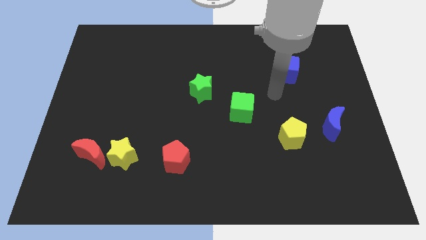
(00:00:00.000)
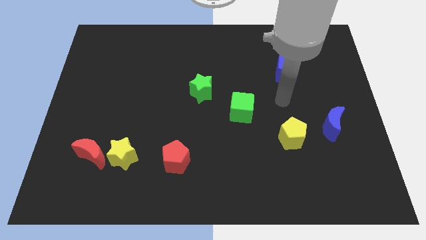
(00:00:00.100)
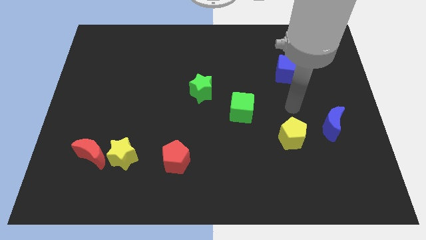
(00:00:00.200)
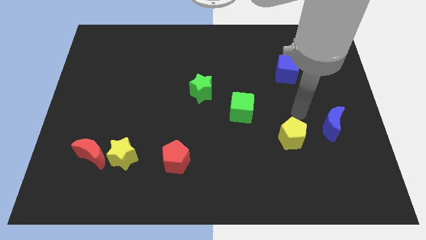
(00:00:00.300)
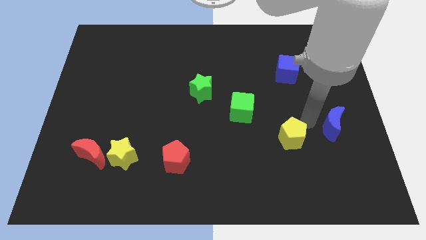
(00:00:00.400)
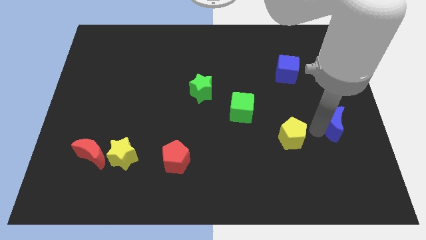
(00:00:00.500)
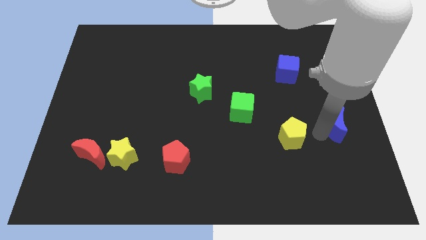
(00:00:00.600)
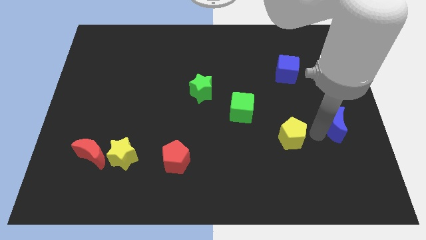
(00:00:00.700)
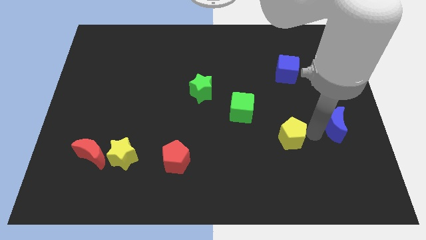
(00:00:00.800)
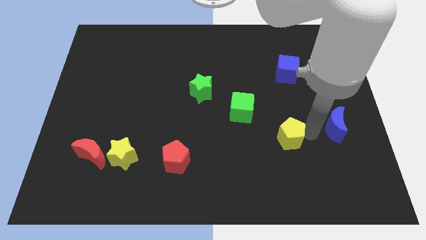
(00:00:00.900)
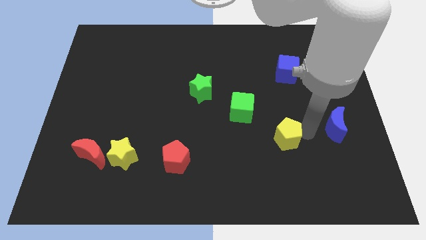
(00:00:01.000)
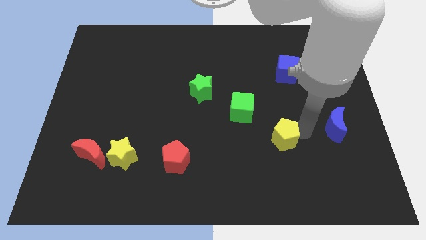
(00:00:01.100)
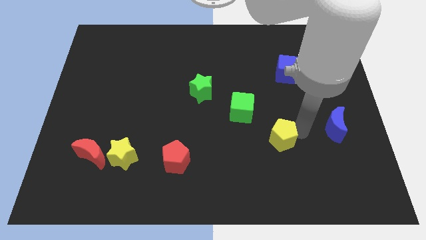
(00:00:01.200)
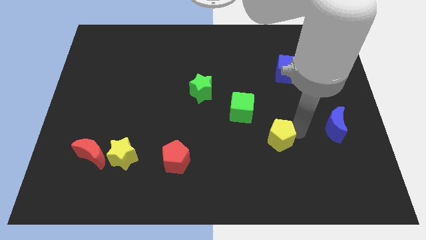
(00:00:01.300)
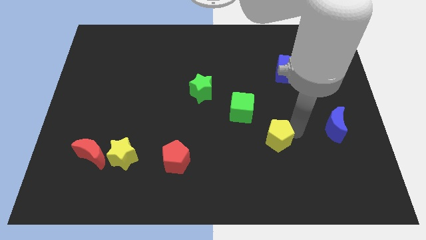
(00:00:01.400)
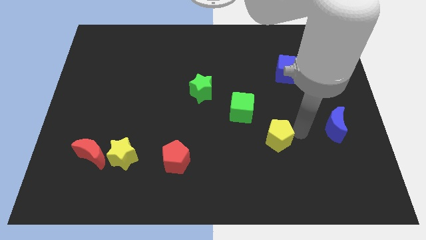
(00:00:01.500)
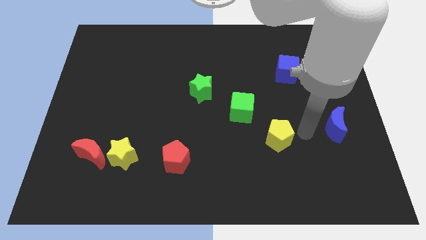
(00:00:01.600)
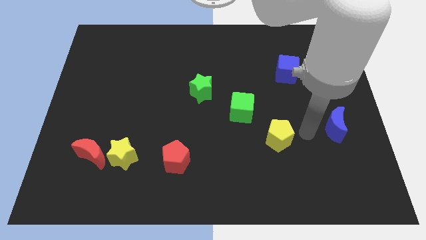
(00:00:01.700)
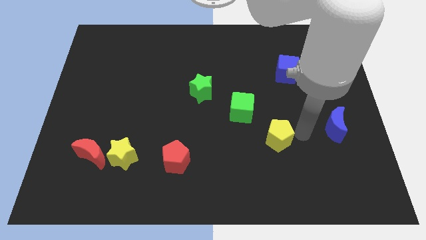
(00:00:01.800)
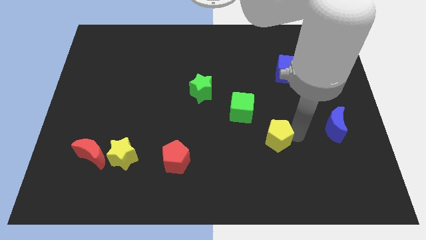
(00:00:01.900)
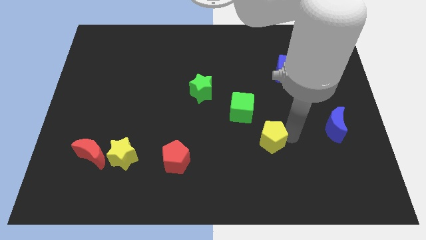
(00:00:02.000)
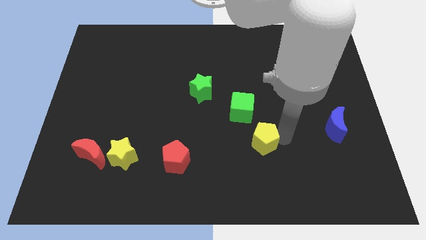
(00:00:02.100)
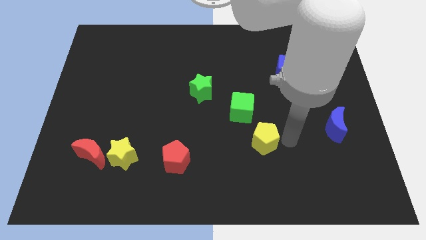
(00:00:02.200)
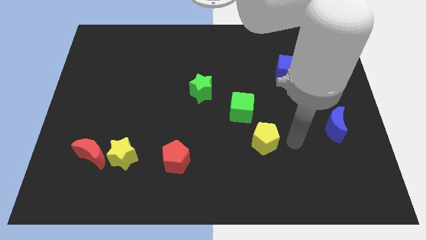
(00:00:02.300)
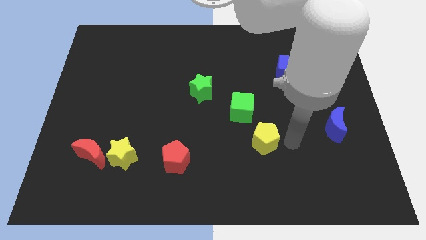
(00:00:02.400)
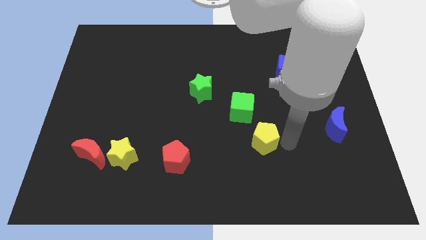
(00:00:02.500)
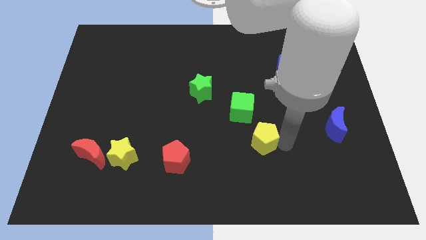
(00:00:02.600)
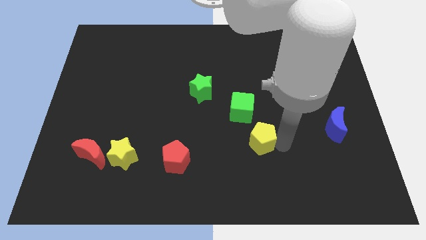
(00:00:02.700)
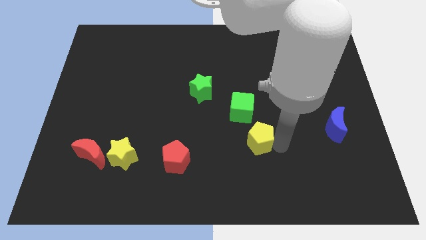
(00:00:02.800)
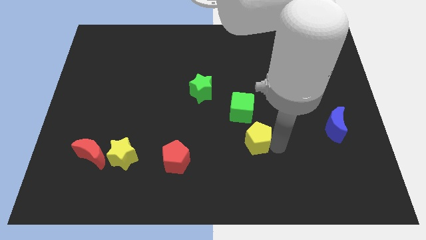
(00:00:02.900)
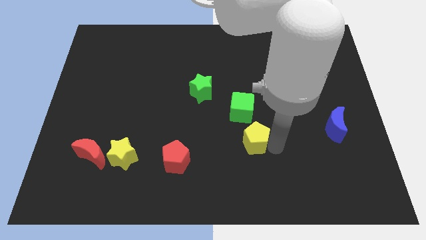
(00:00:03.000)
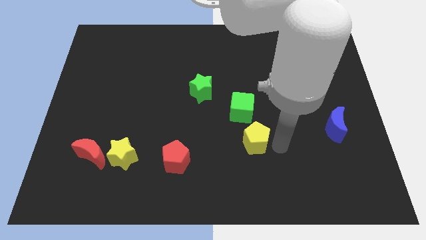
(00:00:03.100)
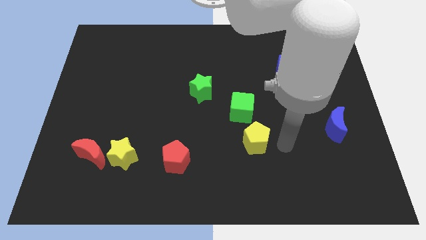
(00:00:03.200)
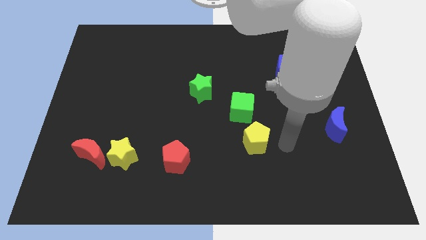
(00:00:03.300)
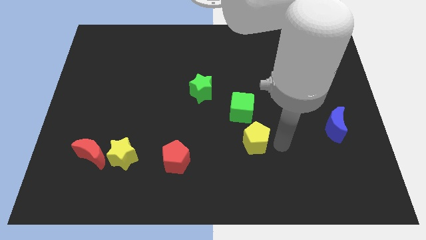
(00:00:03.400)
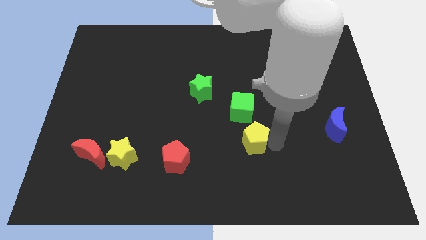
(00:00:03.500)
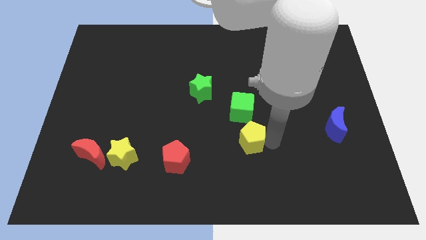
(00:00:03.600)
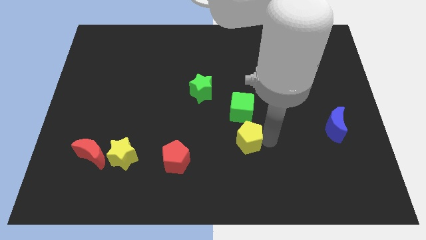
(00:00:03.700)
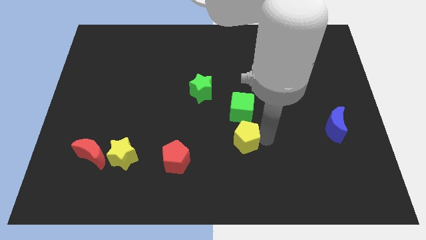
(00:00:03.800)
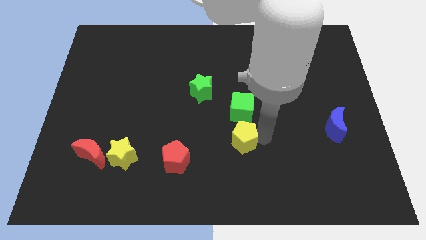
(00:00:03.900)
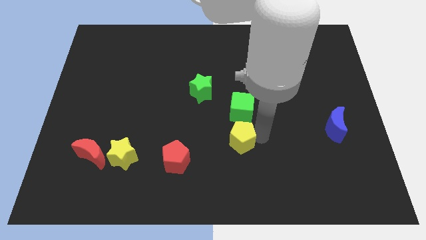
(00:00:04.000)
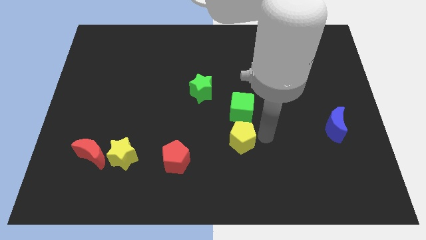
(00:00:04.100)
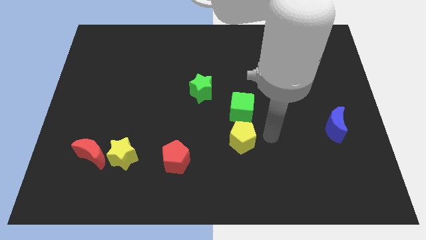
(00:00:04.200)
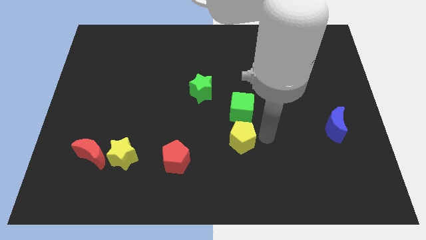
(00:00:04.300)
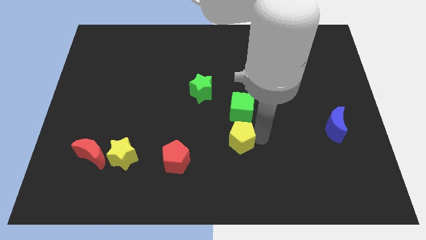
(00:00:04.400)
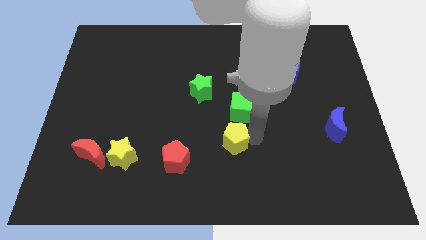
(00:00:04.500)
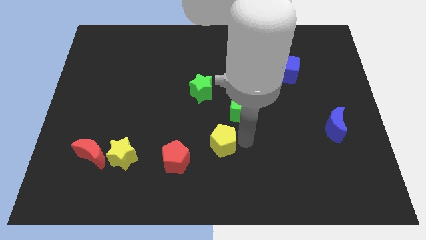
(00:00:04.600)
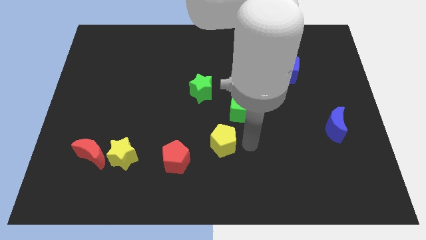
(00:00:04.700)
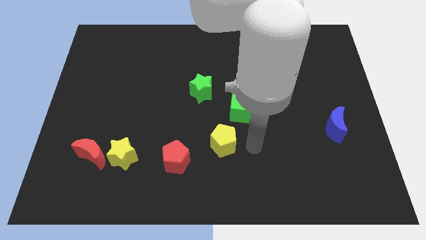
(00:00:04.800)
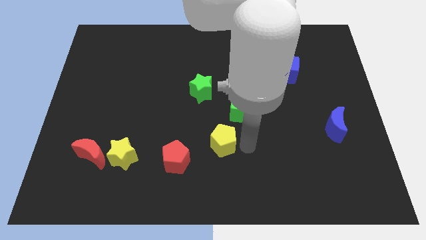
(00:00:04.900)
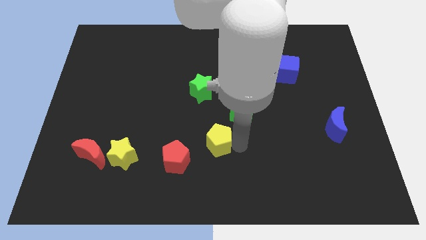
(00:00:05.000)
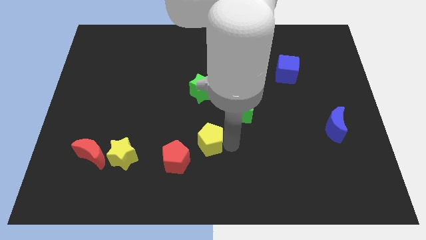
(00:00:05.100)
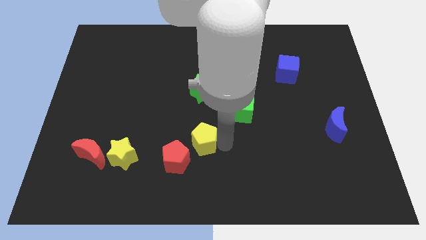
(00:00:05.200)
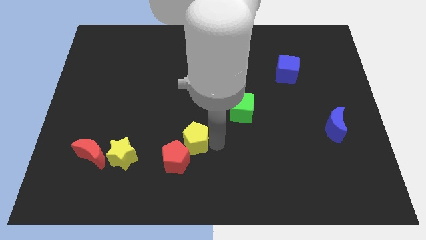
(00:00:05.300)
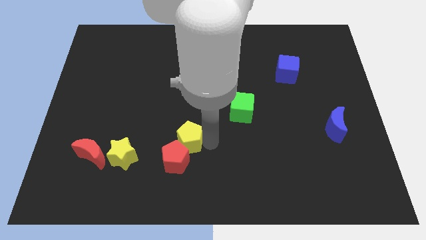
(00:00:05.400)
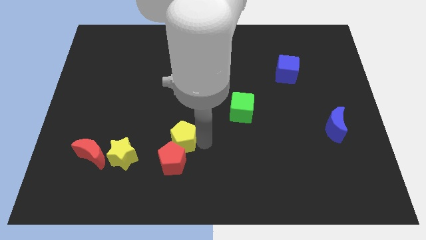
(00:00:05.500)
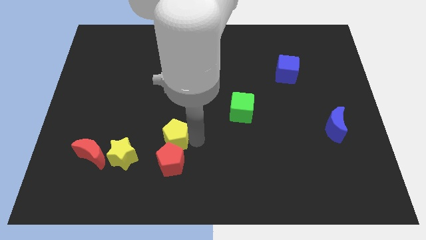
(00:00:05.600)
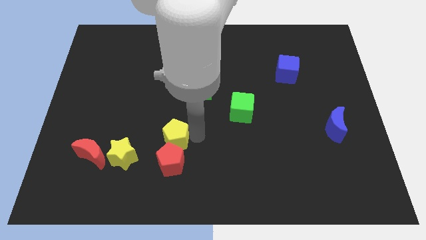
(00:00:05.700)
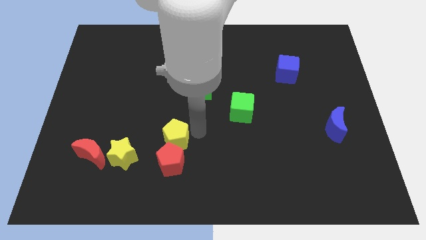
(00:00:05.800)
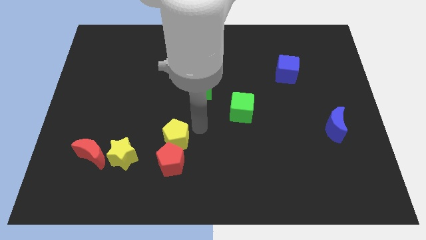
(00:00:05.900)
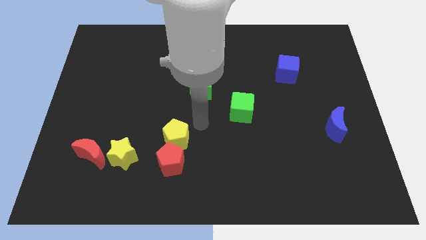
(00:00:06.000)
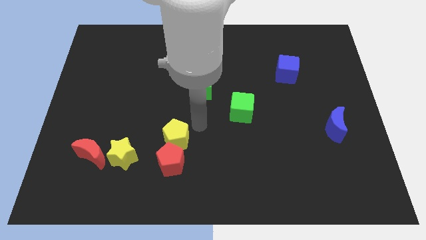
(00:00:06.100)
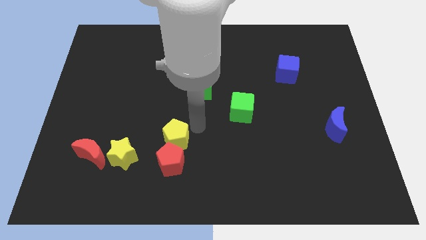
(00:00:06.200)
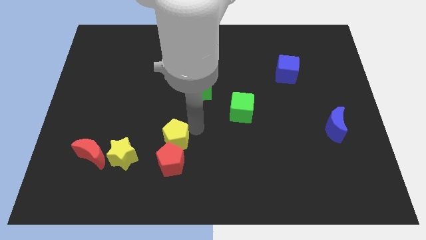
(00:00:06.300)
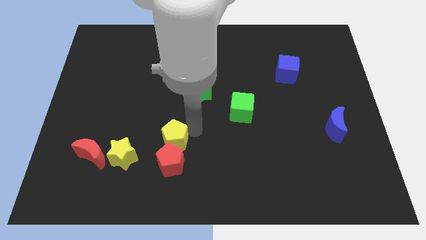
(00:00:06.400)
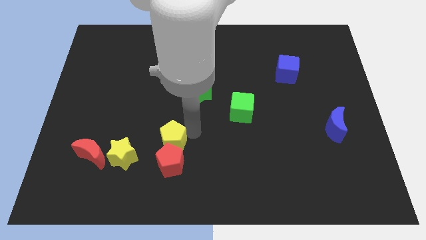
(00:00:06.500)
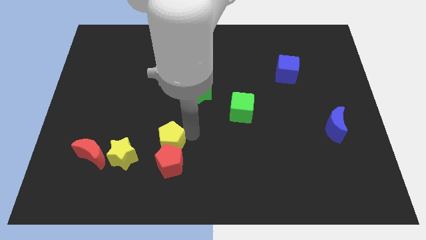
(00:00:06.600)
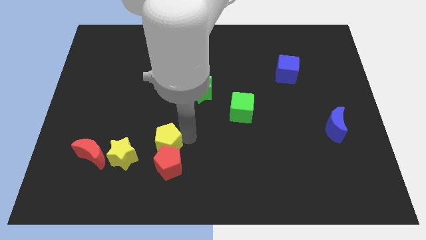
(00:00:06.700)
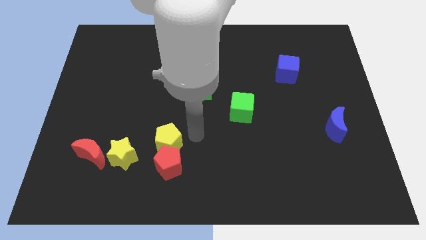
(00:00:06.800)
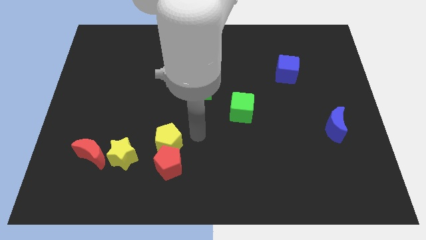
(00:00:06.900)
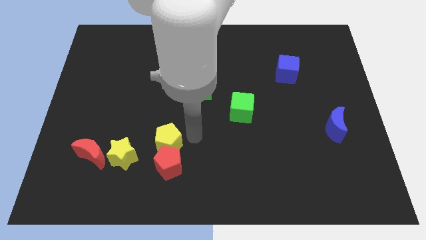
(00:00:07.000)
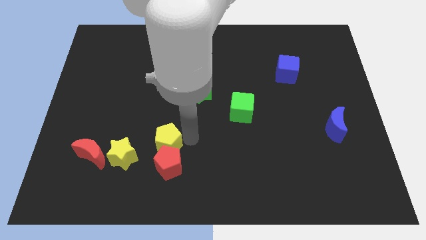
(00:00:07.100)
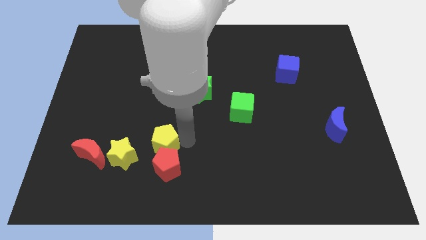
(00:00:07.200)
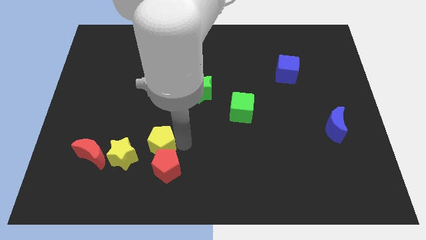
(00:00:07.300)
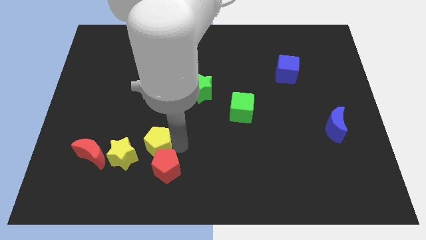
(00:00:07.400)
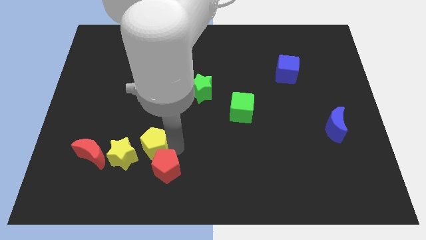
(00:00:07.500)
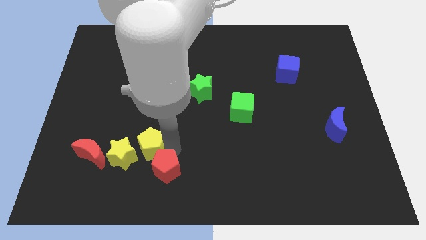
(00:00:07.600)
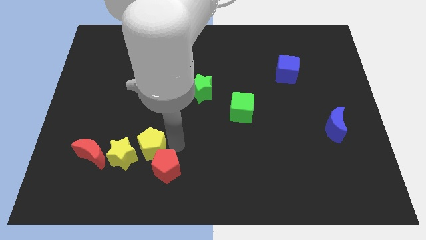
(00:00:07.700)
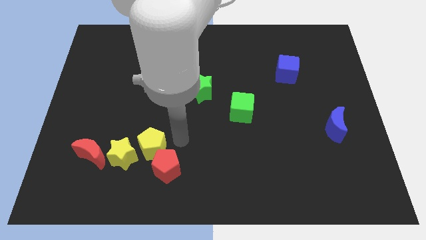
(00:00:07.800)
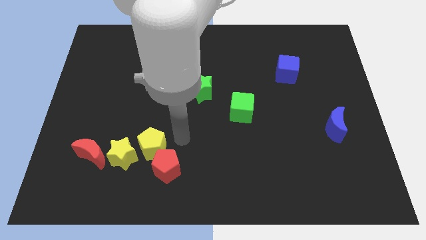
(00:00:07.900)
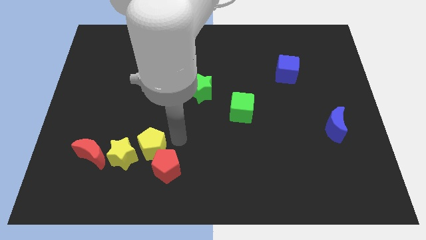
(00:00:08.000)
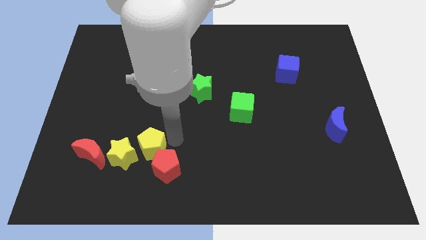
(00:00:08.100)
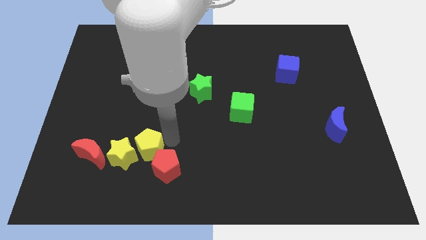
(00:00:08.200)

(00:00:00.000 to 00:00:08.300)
slide the yellow pentagon to the yellow star
